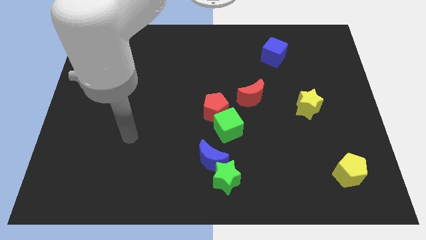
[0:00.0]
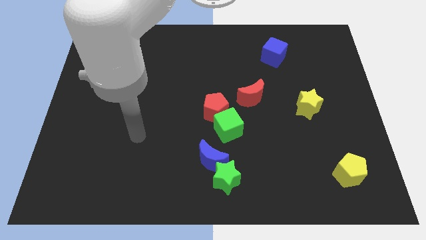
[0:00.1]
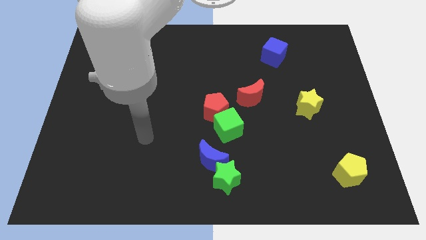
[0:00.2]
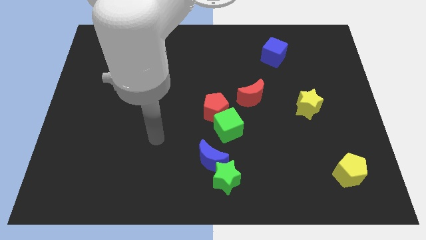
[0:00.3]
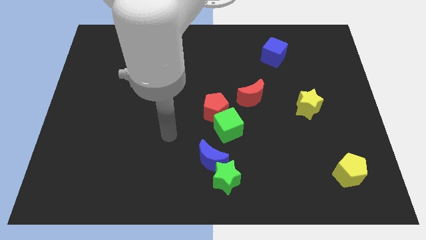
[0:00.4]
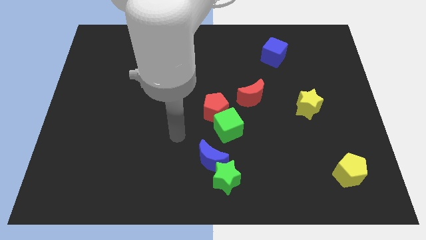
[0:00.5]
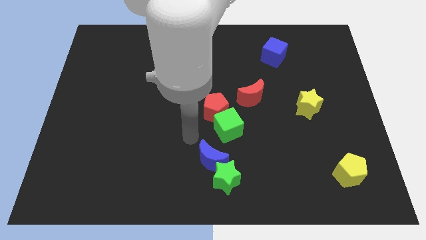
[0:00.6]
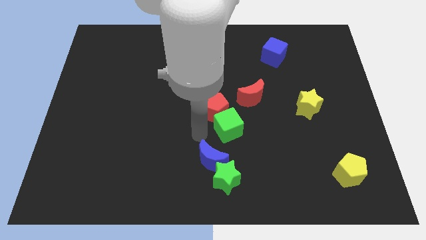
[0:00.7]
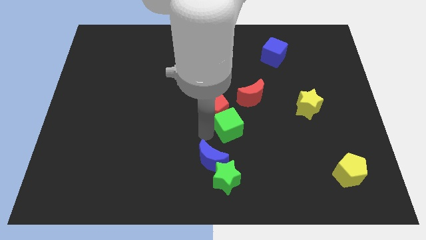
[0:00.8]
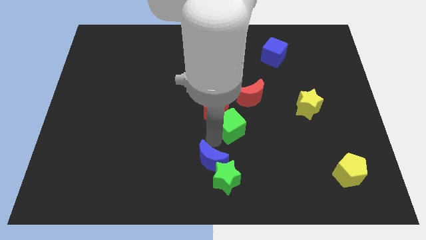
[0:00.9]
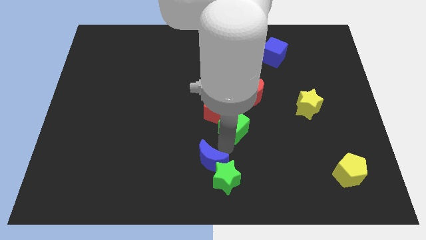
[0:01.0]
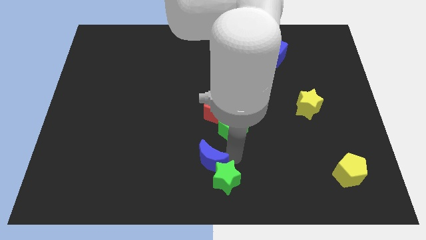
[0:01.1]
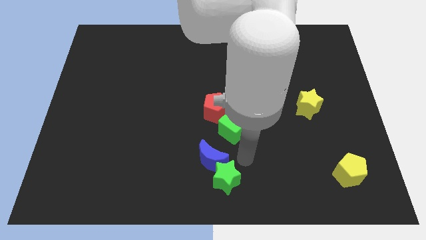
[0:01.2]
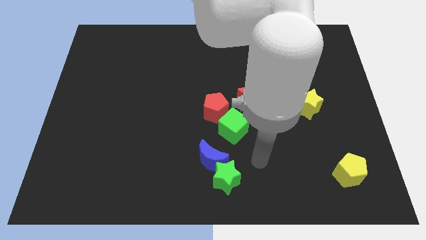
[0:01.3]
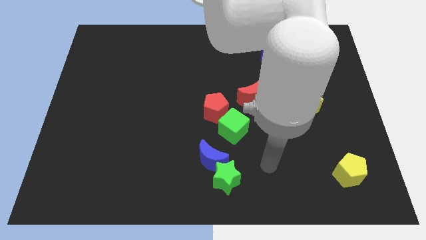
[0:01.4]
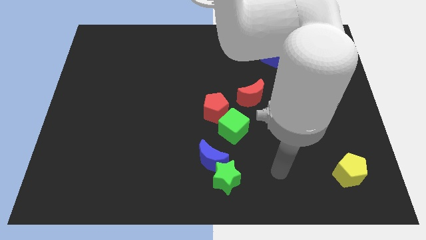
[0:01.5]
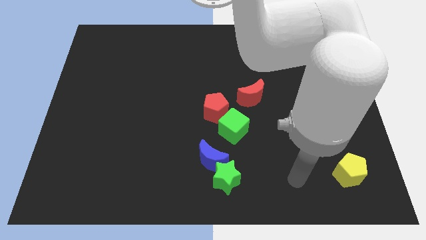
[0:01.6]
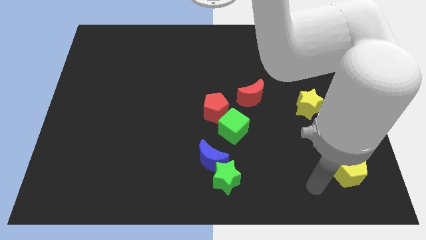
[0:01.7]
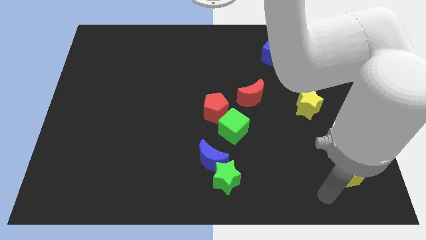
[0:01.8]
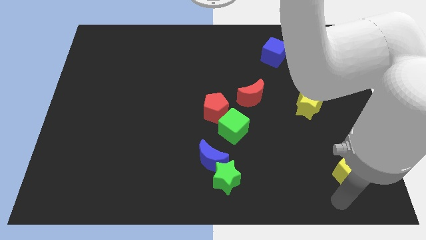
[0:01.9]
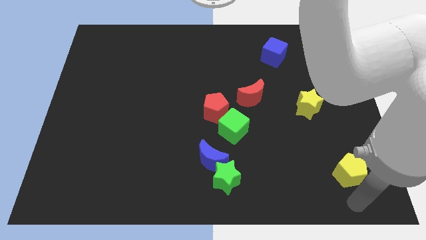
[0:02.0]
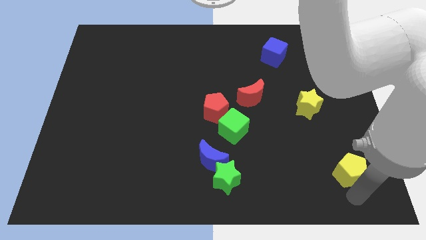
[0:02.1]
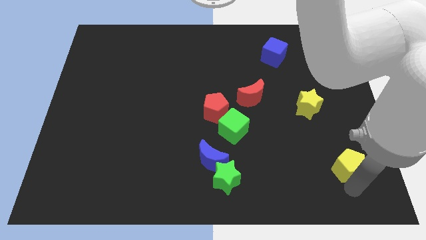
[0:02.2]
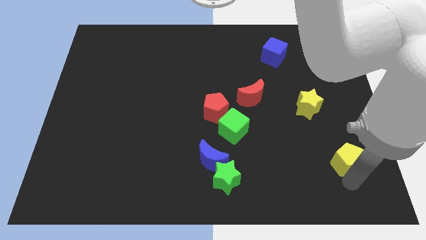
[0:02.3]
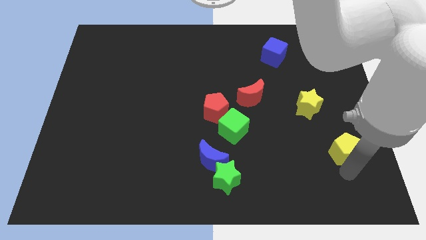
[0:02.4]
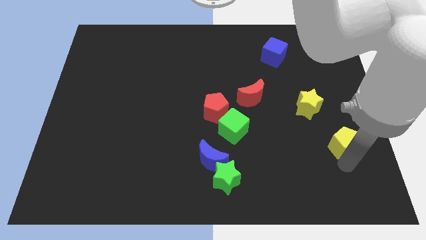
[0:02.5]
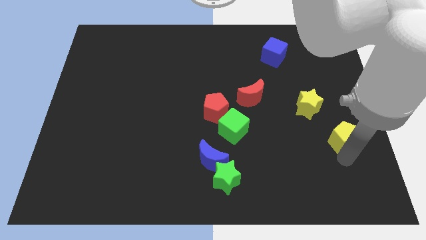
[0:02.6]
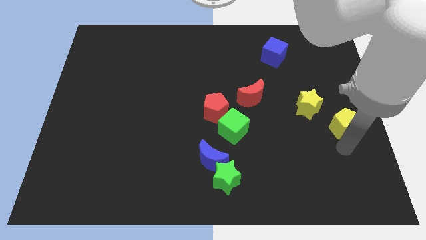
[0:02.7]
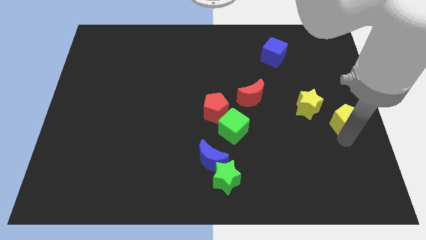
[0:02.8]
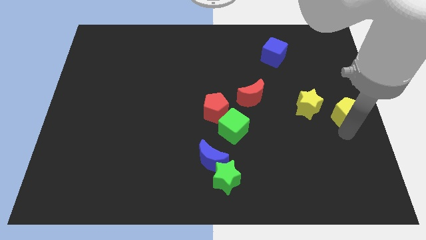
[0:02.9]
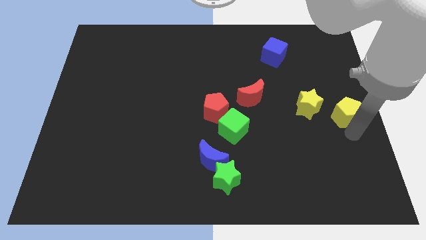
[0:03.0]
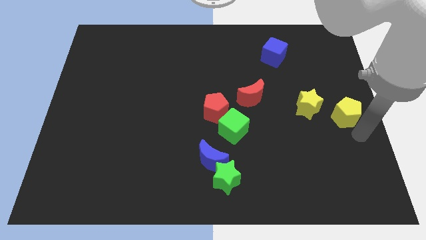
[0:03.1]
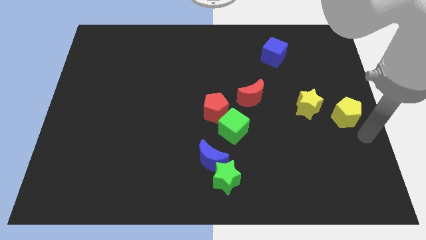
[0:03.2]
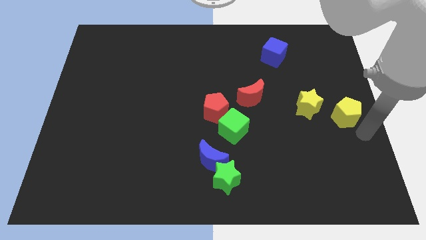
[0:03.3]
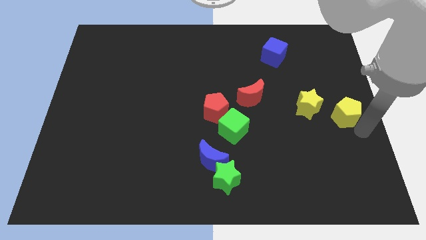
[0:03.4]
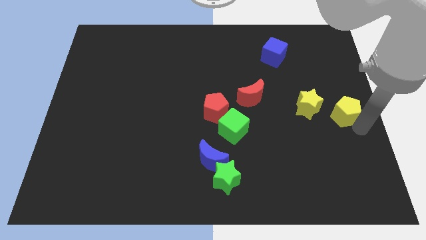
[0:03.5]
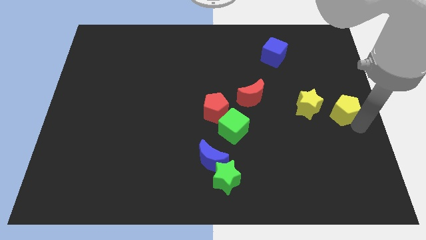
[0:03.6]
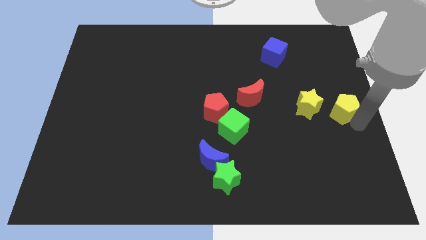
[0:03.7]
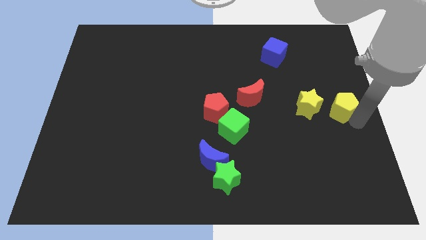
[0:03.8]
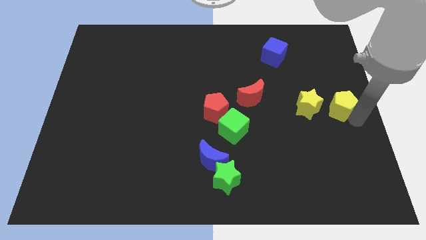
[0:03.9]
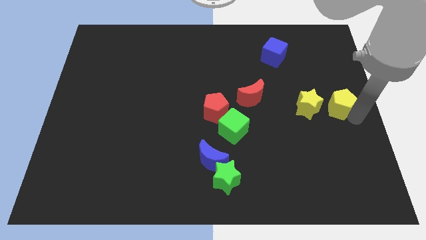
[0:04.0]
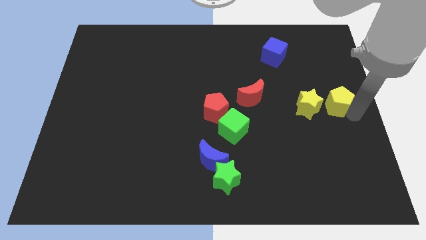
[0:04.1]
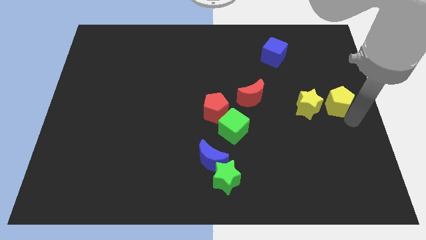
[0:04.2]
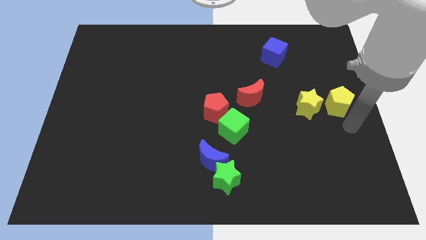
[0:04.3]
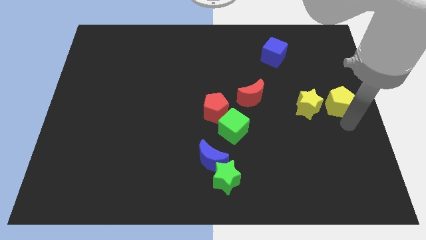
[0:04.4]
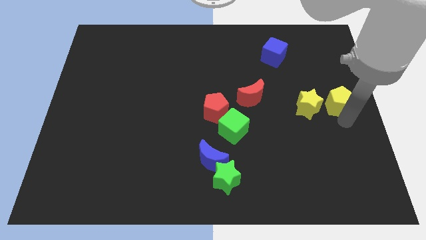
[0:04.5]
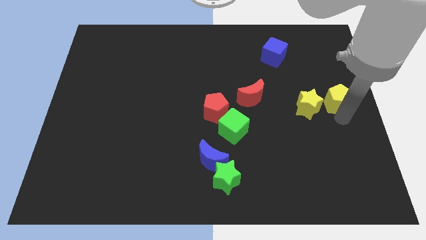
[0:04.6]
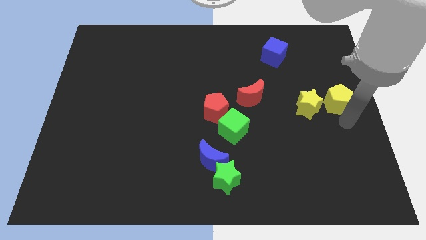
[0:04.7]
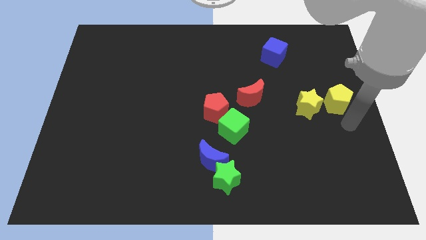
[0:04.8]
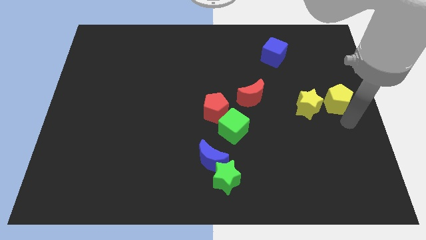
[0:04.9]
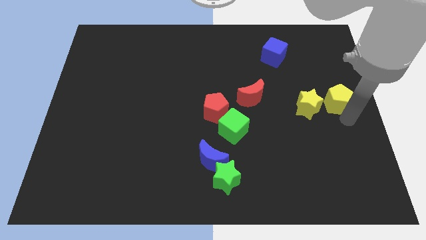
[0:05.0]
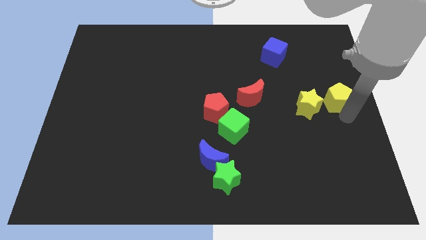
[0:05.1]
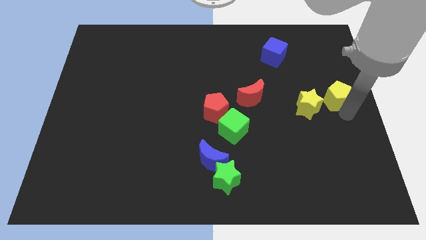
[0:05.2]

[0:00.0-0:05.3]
push the yellow pentagon up

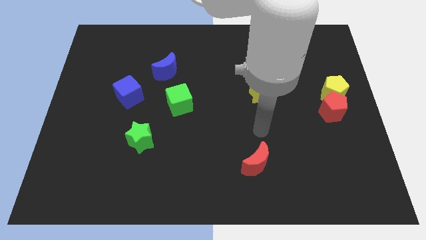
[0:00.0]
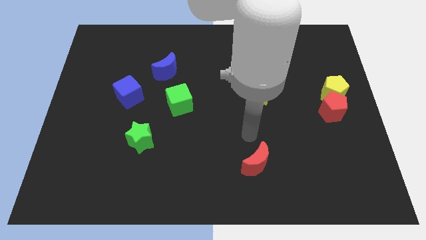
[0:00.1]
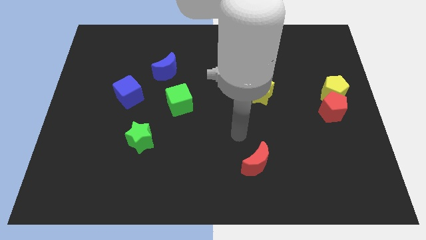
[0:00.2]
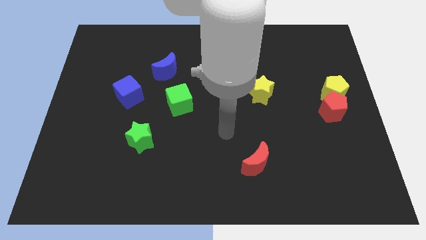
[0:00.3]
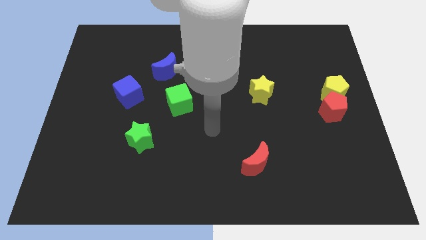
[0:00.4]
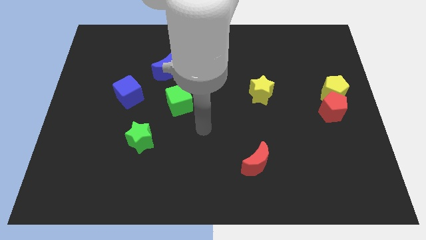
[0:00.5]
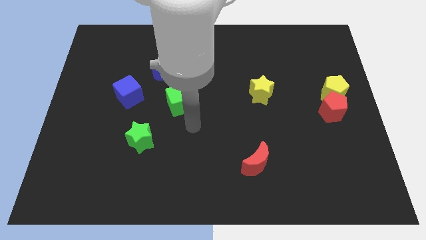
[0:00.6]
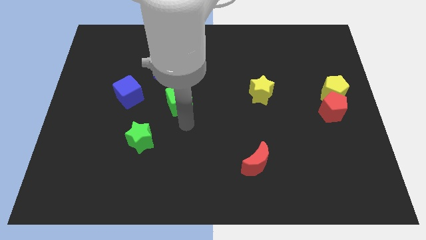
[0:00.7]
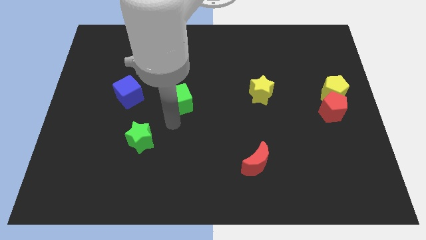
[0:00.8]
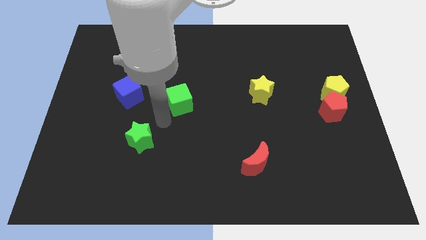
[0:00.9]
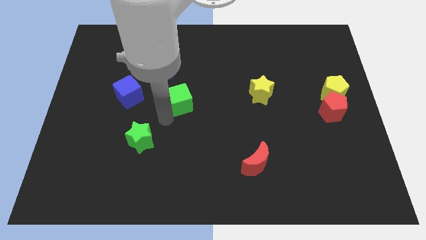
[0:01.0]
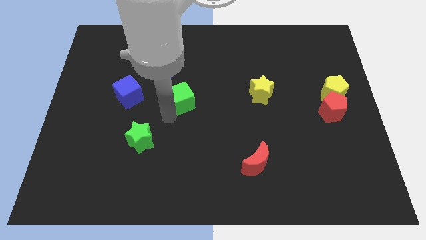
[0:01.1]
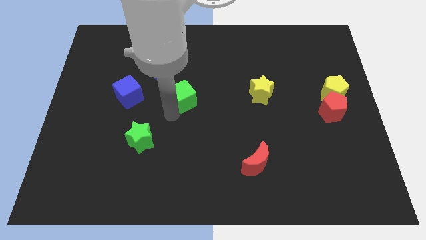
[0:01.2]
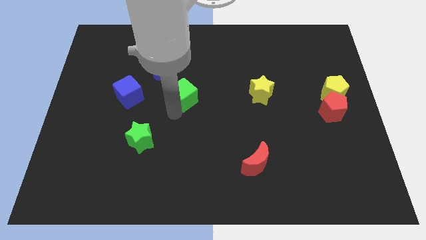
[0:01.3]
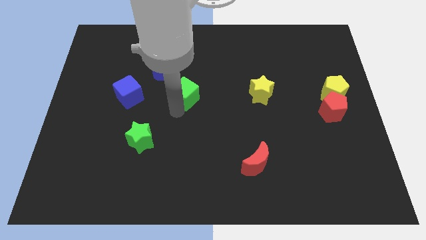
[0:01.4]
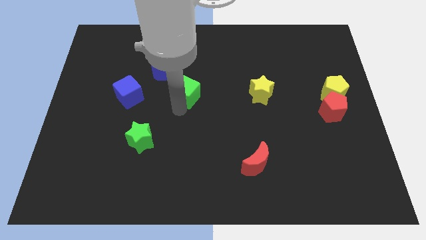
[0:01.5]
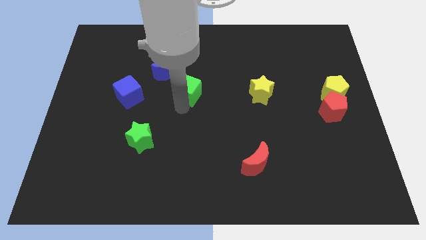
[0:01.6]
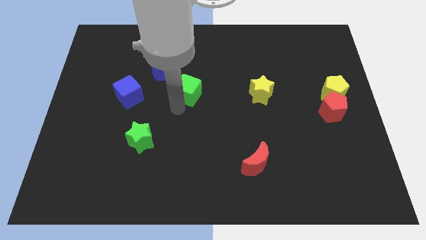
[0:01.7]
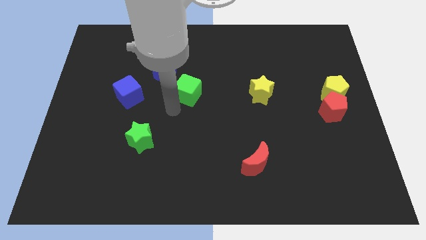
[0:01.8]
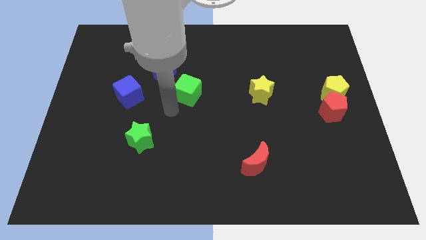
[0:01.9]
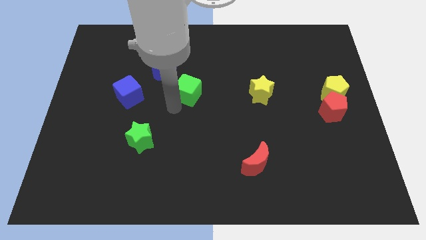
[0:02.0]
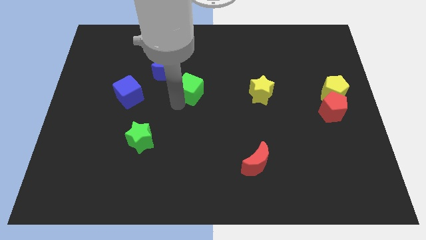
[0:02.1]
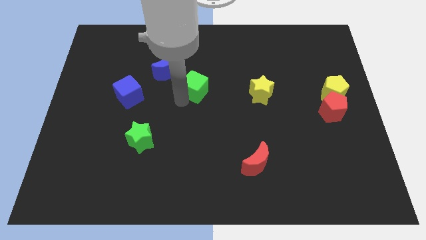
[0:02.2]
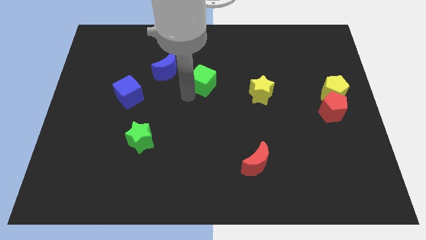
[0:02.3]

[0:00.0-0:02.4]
move the green cube a little bit upwards and right
